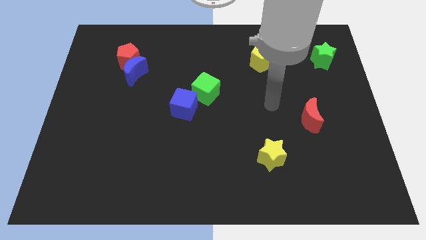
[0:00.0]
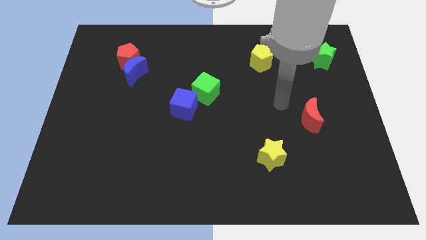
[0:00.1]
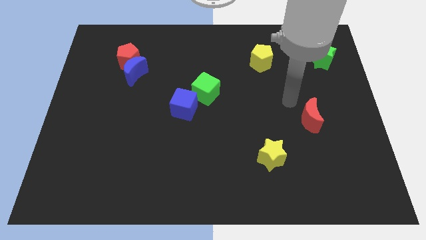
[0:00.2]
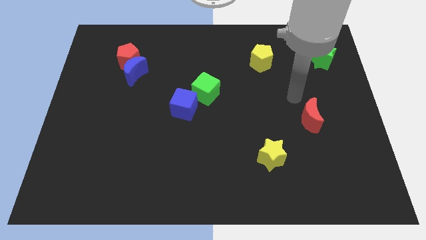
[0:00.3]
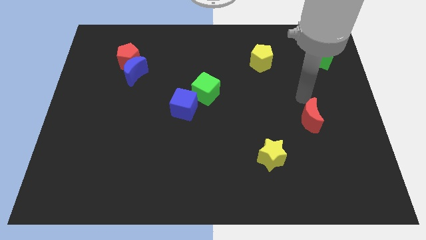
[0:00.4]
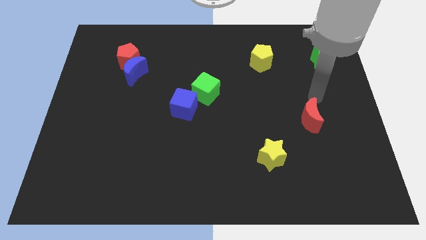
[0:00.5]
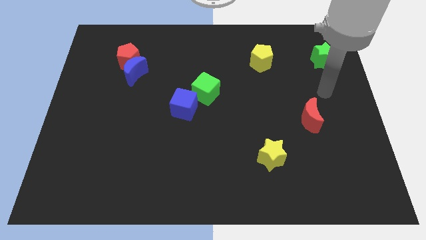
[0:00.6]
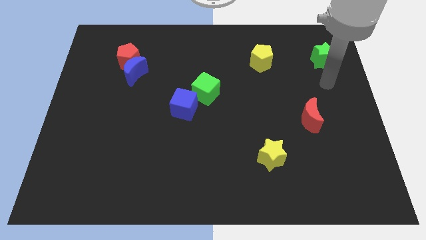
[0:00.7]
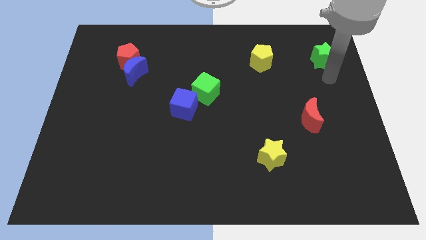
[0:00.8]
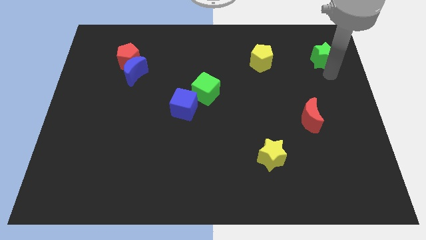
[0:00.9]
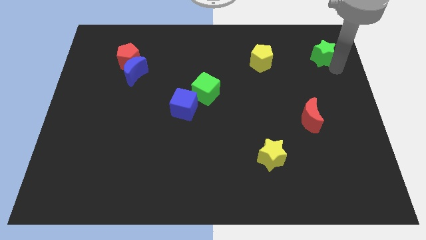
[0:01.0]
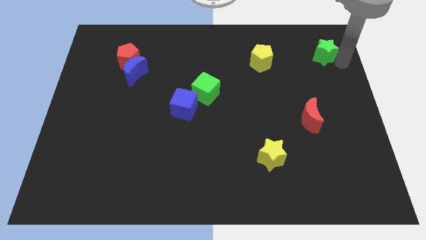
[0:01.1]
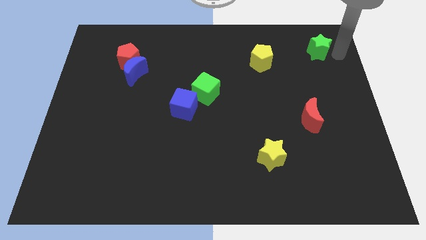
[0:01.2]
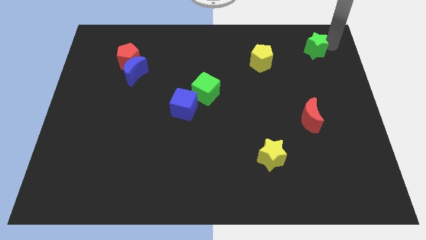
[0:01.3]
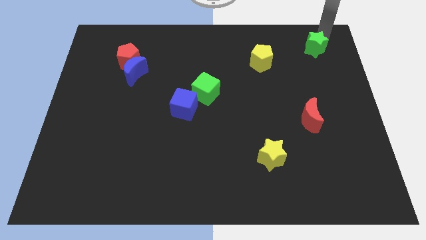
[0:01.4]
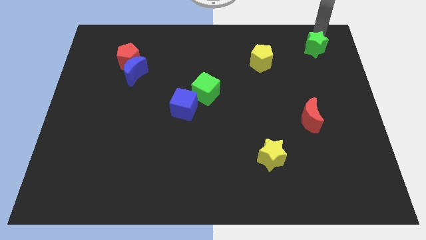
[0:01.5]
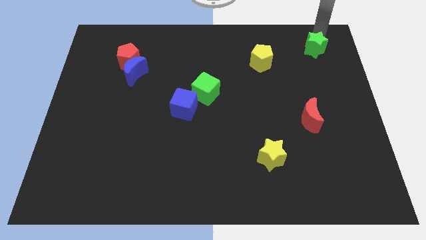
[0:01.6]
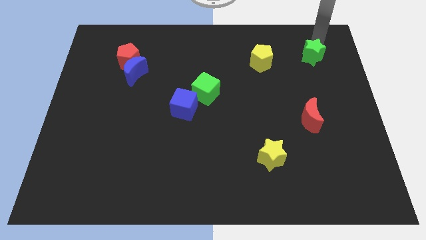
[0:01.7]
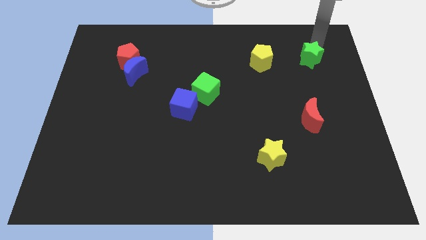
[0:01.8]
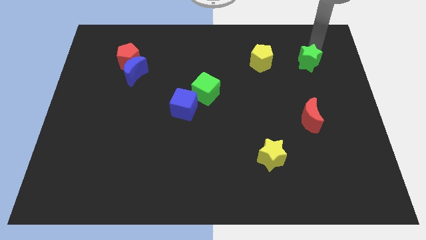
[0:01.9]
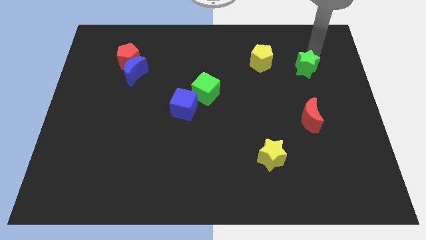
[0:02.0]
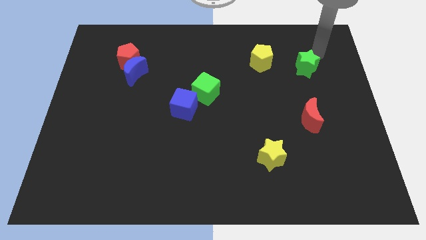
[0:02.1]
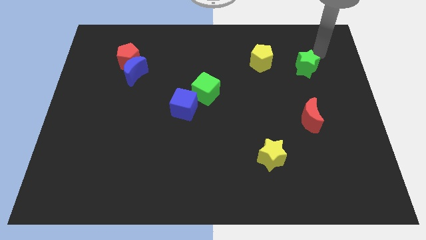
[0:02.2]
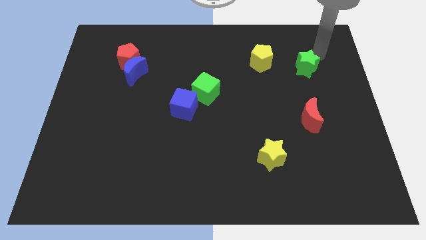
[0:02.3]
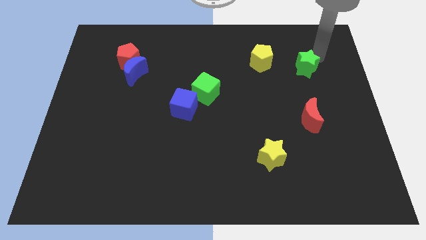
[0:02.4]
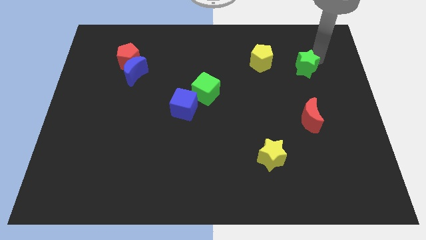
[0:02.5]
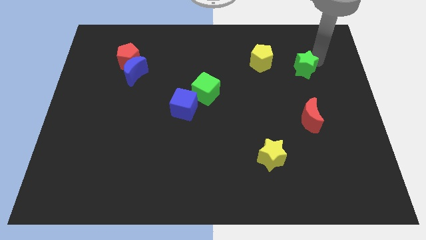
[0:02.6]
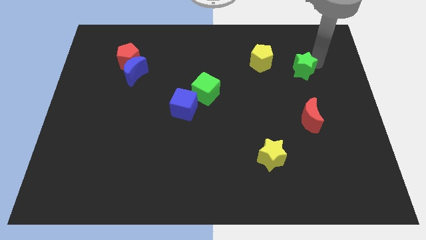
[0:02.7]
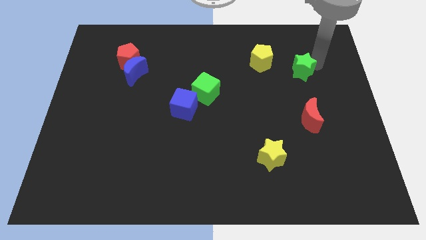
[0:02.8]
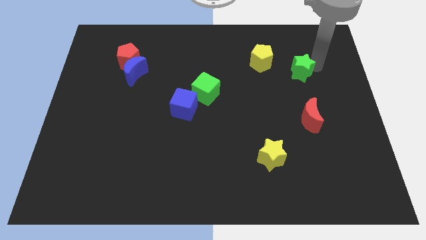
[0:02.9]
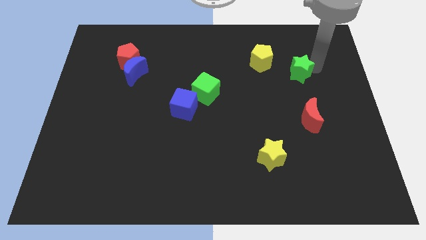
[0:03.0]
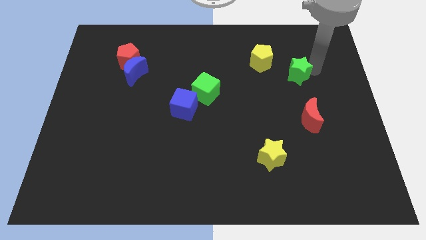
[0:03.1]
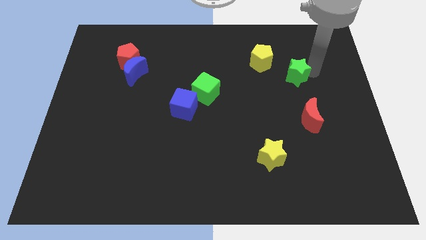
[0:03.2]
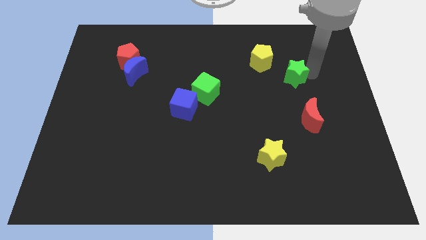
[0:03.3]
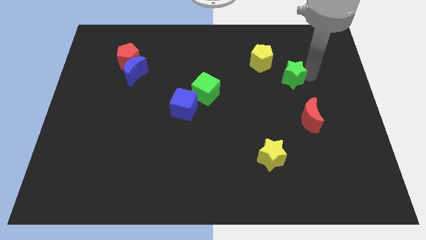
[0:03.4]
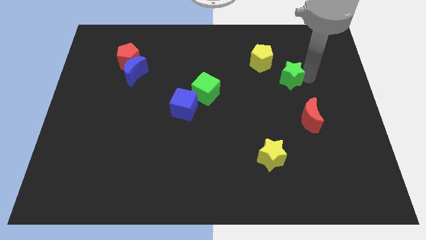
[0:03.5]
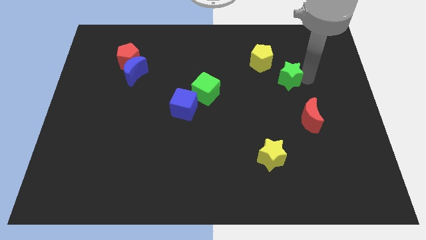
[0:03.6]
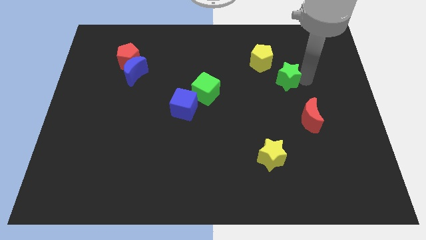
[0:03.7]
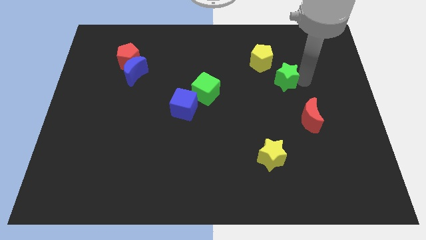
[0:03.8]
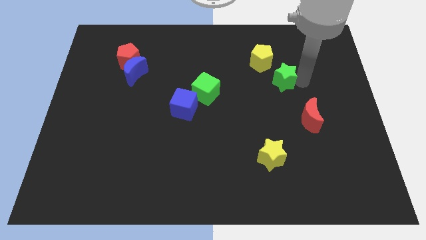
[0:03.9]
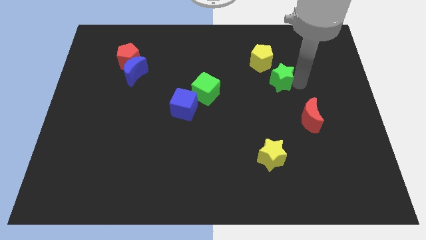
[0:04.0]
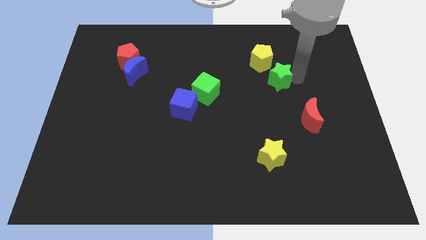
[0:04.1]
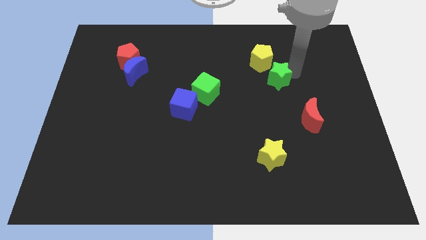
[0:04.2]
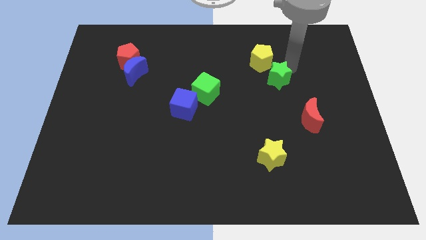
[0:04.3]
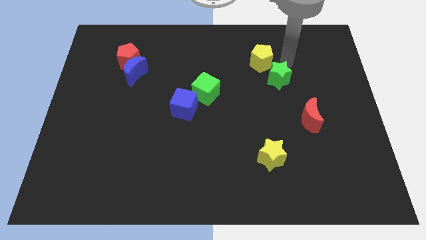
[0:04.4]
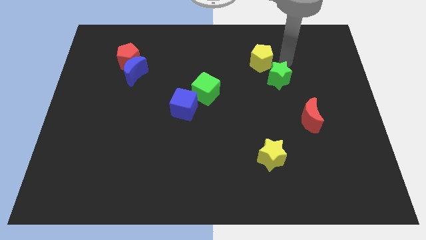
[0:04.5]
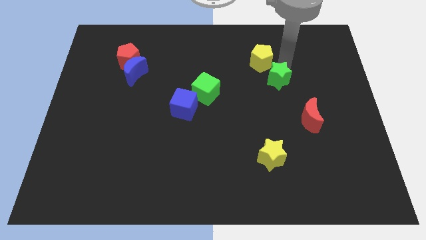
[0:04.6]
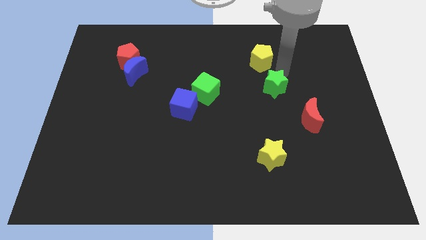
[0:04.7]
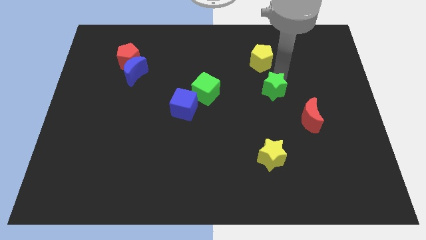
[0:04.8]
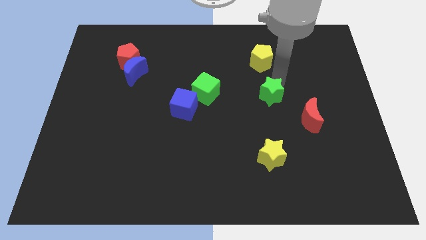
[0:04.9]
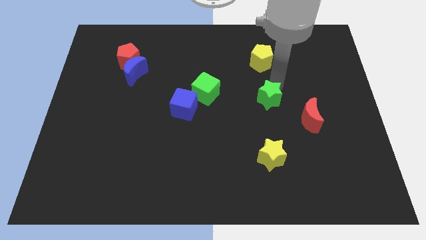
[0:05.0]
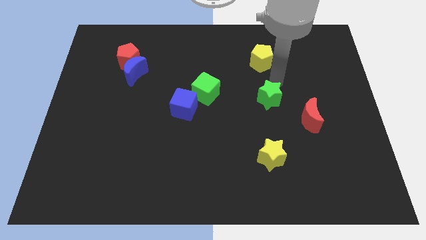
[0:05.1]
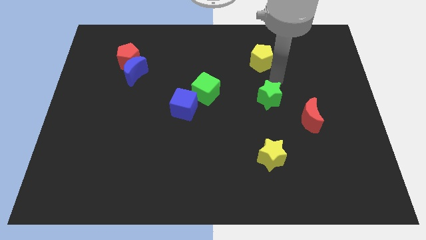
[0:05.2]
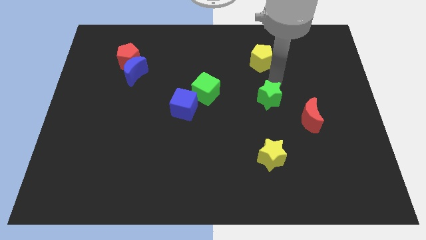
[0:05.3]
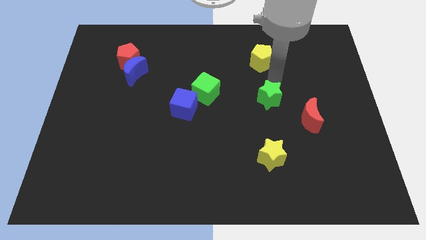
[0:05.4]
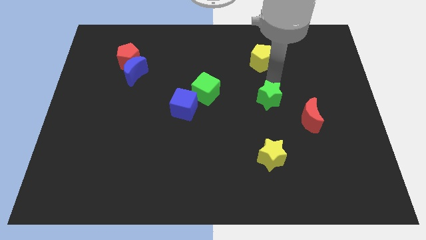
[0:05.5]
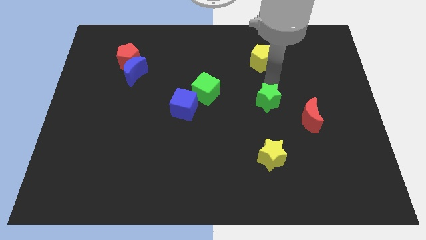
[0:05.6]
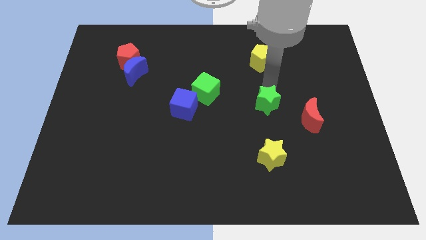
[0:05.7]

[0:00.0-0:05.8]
slide the green star left of the red moon

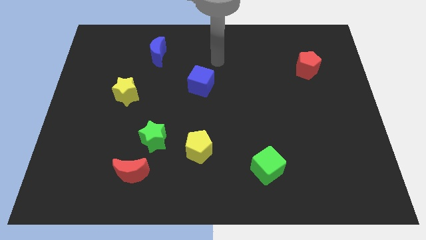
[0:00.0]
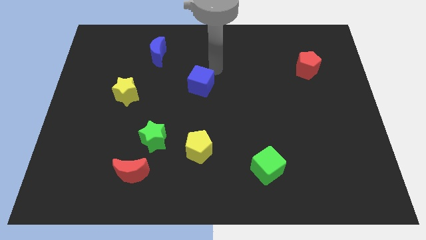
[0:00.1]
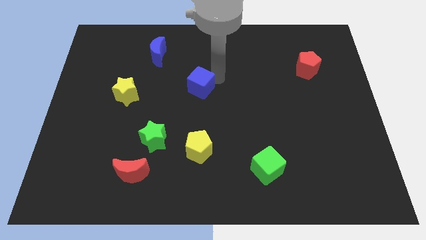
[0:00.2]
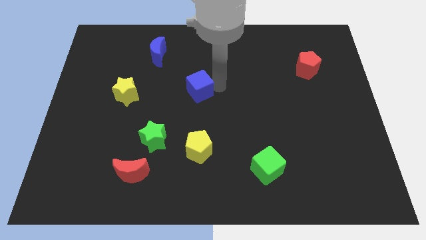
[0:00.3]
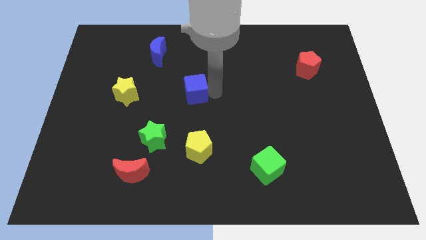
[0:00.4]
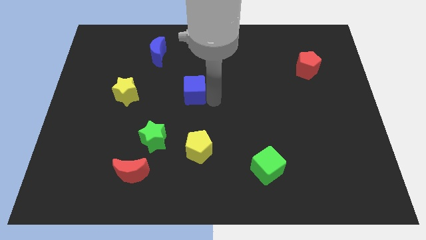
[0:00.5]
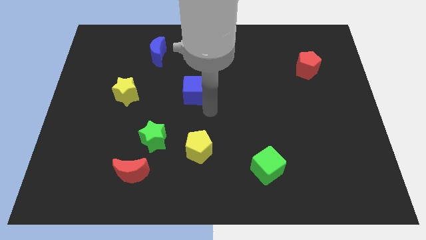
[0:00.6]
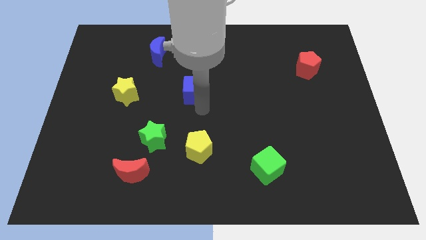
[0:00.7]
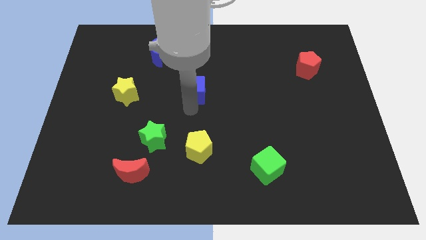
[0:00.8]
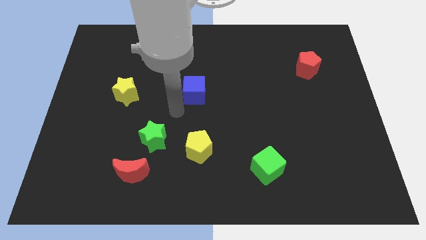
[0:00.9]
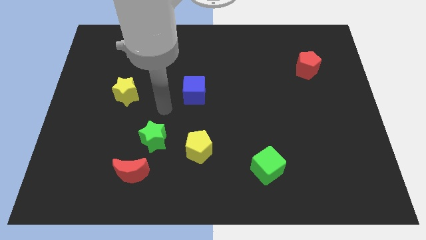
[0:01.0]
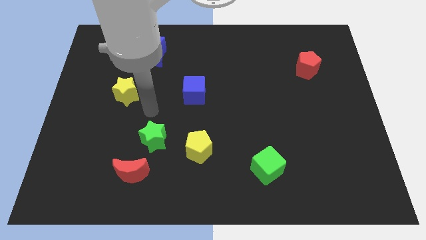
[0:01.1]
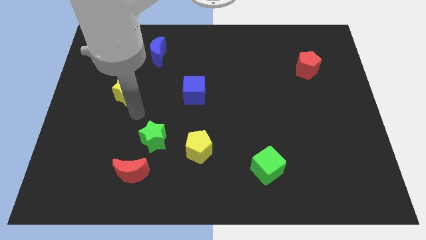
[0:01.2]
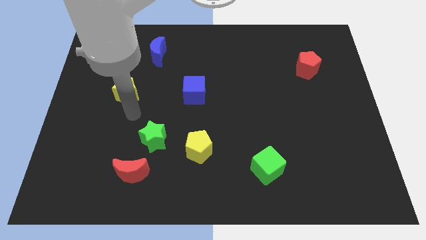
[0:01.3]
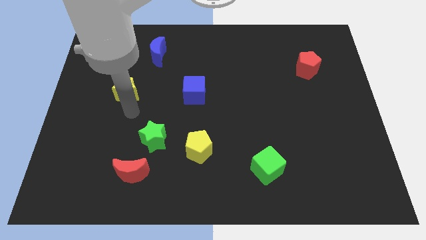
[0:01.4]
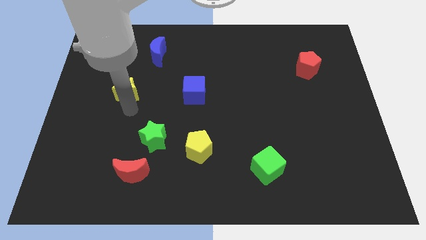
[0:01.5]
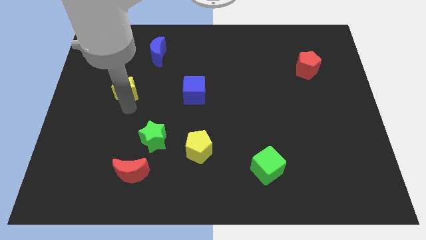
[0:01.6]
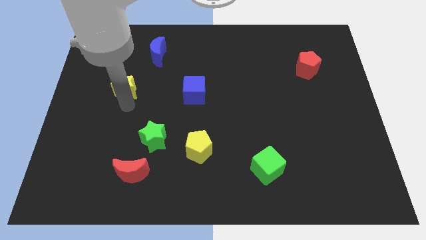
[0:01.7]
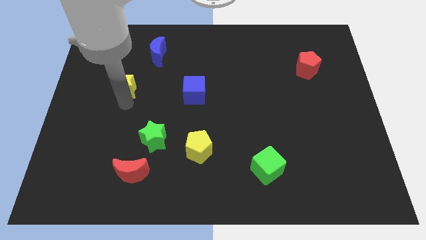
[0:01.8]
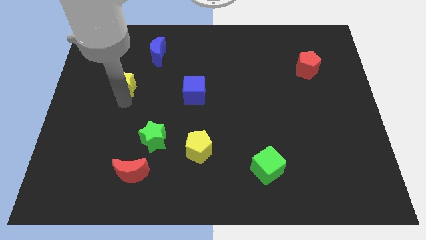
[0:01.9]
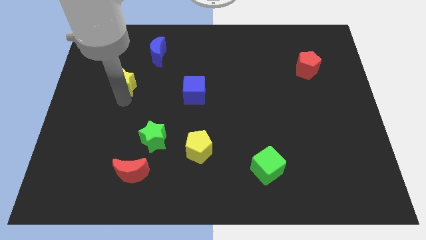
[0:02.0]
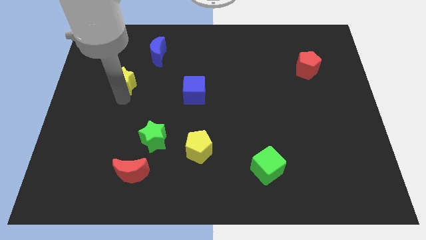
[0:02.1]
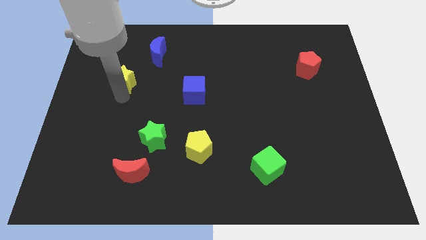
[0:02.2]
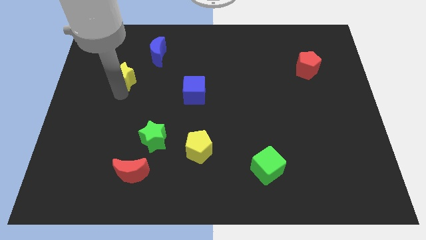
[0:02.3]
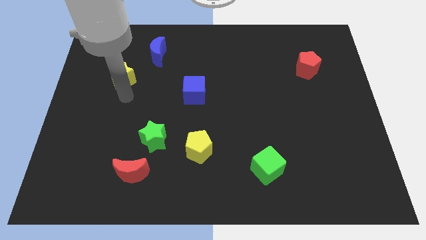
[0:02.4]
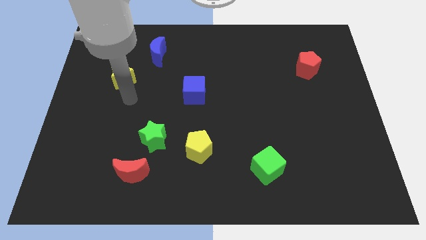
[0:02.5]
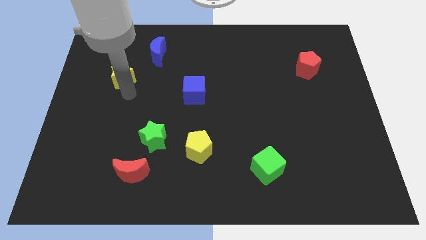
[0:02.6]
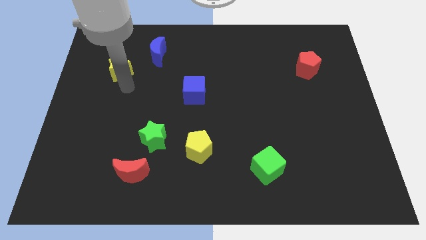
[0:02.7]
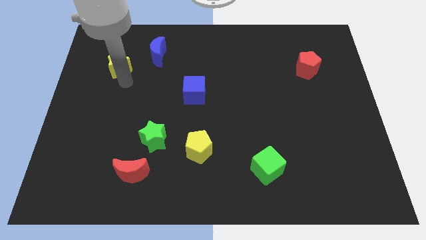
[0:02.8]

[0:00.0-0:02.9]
push the yellow star left of the blue moon
